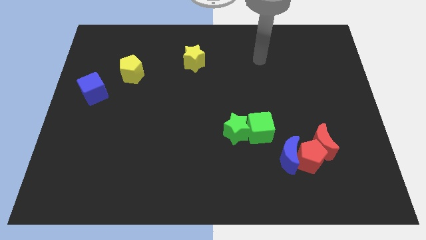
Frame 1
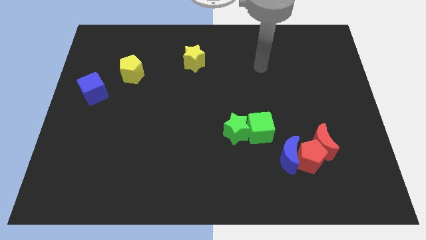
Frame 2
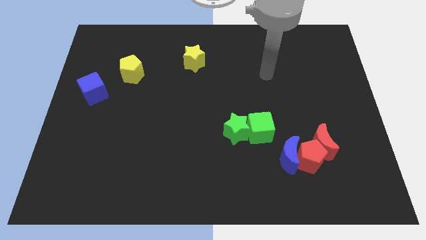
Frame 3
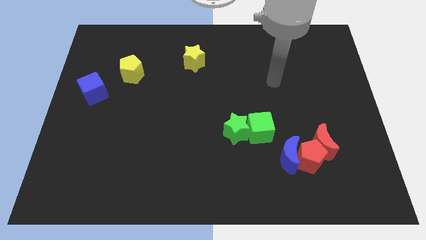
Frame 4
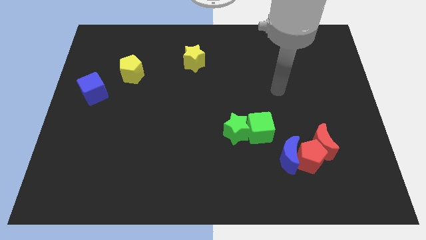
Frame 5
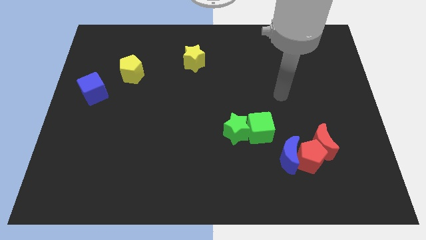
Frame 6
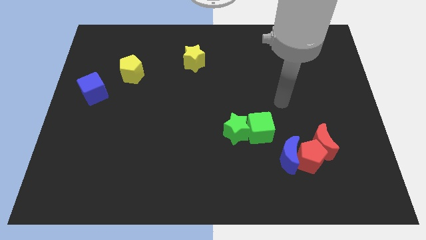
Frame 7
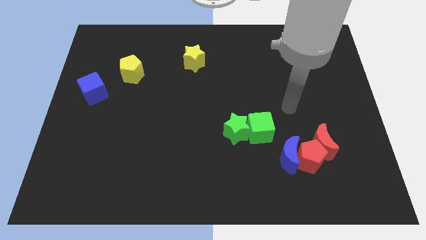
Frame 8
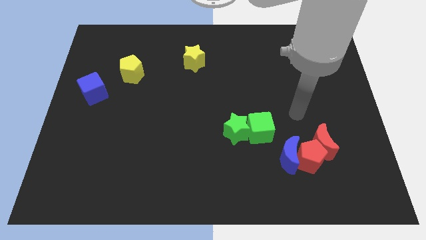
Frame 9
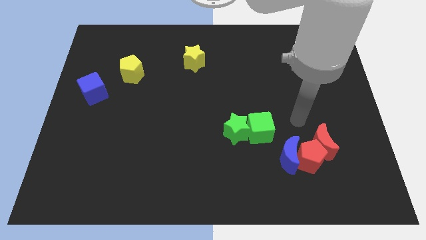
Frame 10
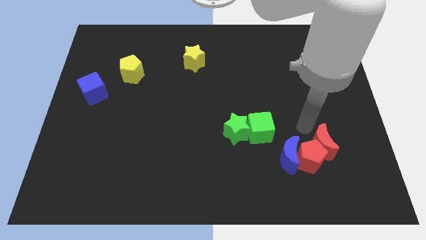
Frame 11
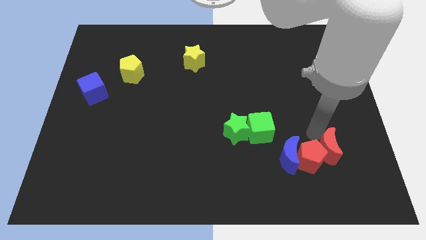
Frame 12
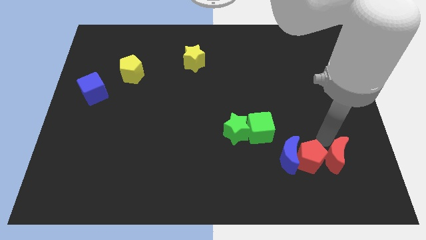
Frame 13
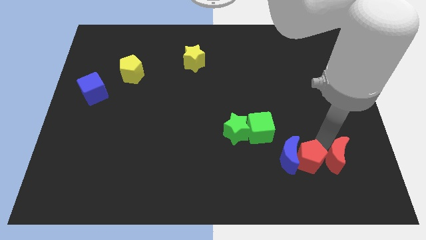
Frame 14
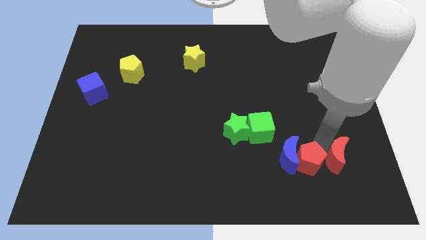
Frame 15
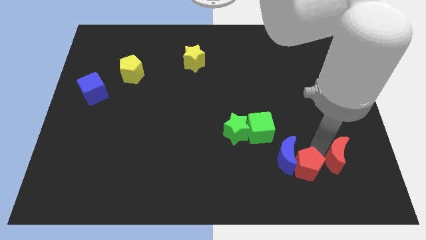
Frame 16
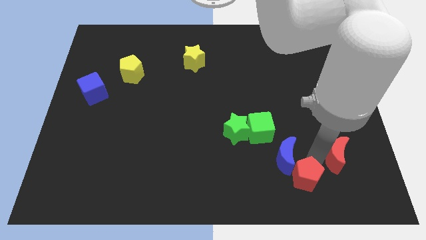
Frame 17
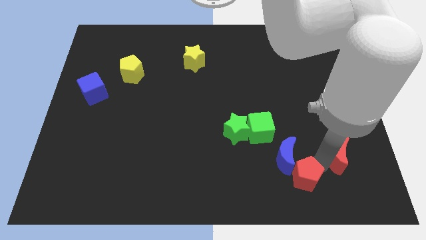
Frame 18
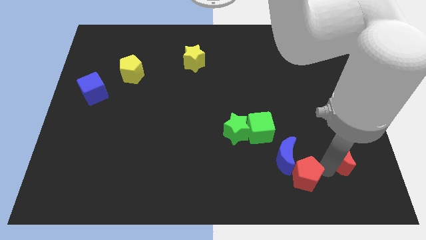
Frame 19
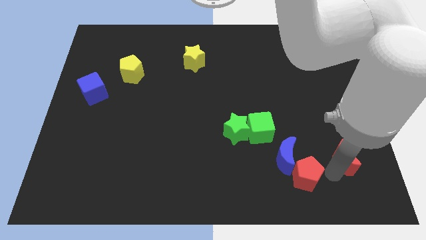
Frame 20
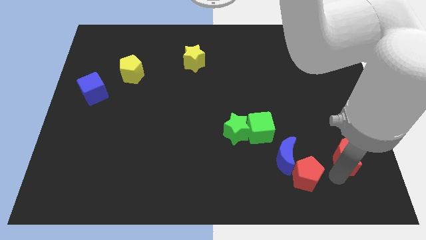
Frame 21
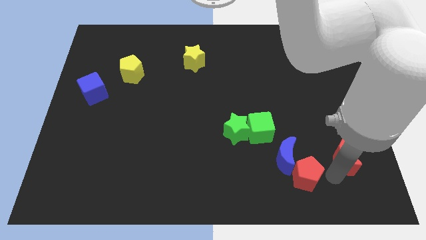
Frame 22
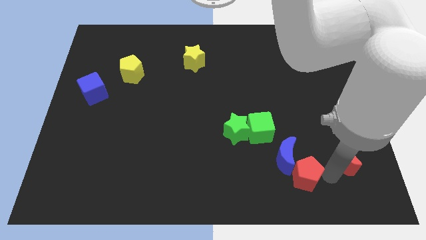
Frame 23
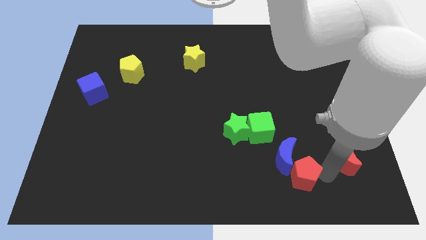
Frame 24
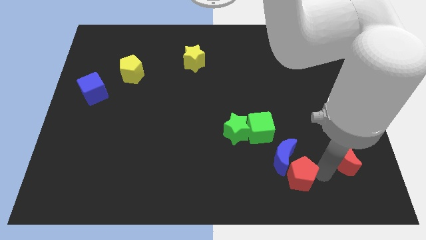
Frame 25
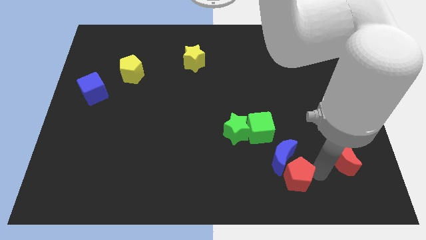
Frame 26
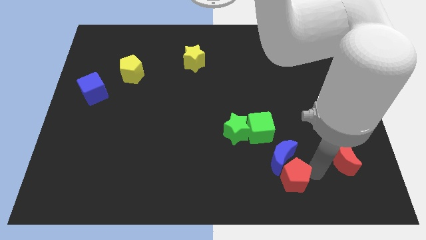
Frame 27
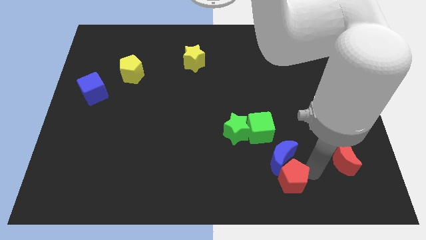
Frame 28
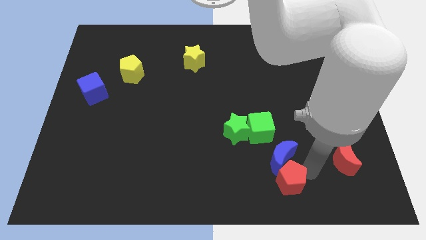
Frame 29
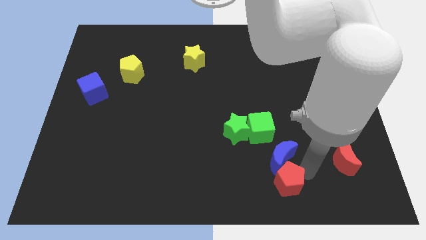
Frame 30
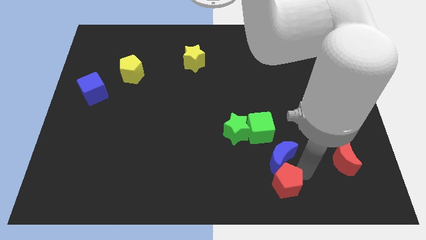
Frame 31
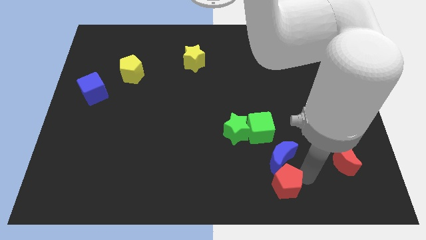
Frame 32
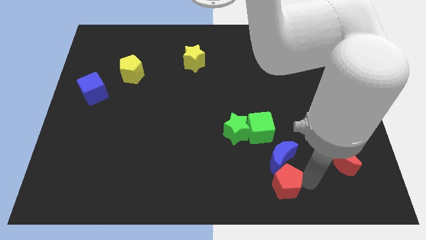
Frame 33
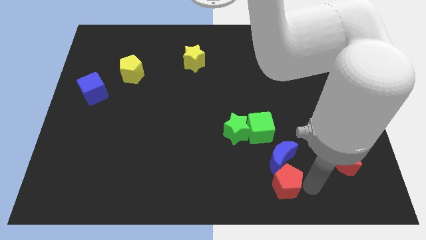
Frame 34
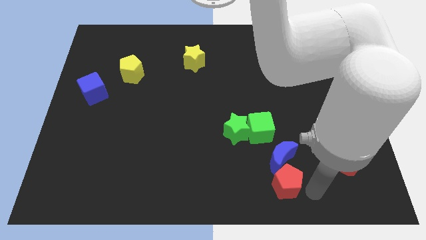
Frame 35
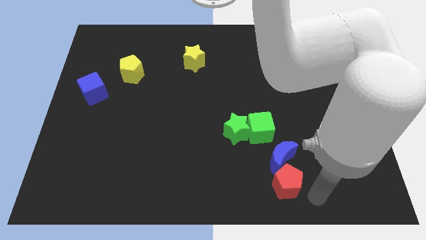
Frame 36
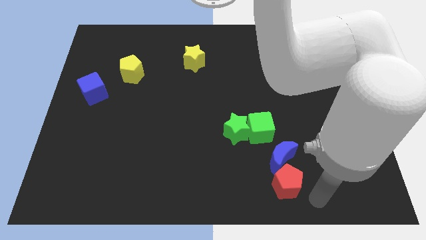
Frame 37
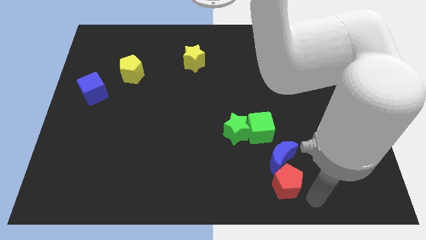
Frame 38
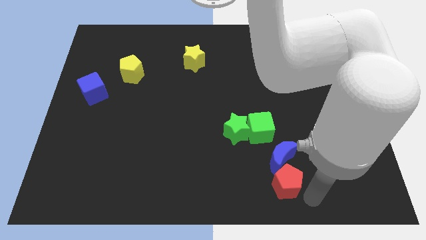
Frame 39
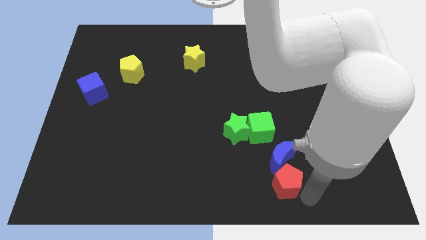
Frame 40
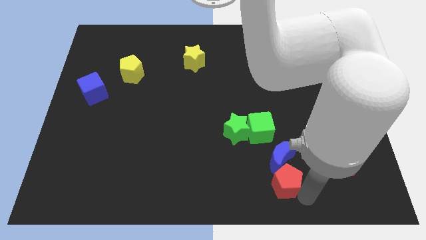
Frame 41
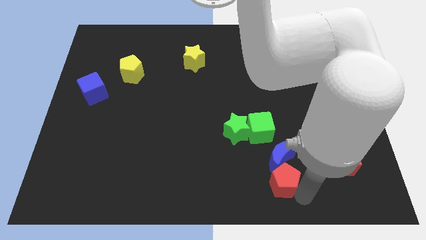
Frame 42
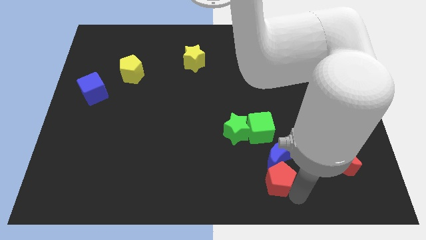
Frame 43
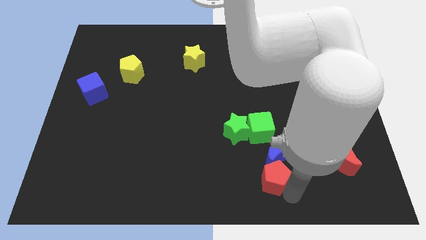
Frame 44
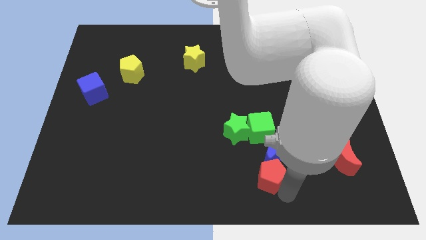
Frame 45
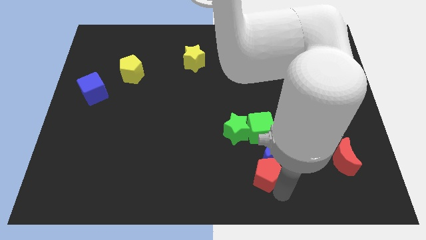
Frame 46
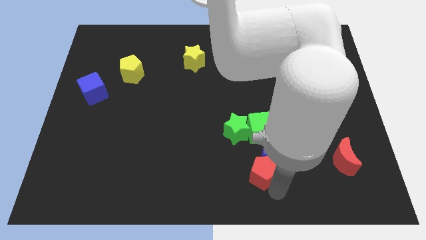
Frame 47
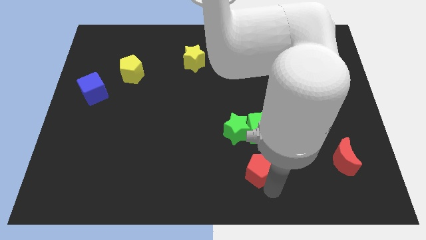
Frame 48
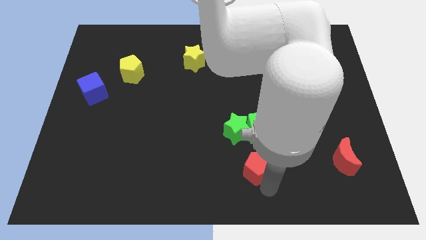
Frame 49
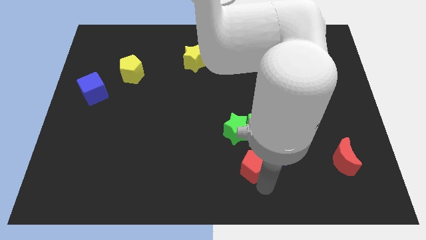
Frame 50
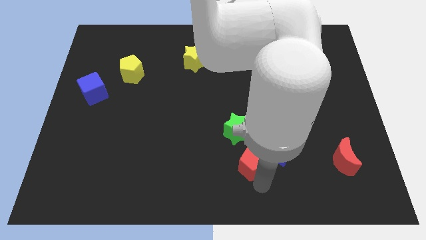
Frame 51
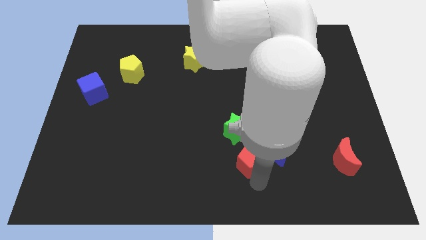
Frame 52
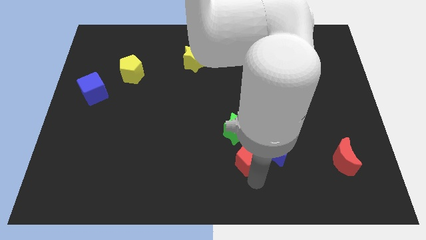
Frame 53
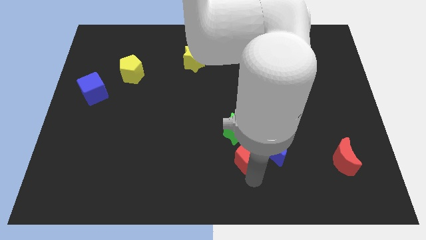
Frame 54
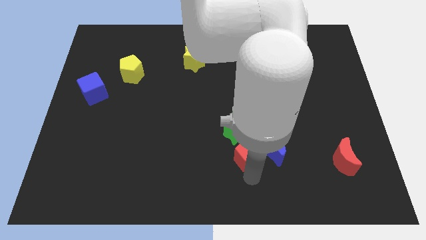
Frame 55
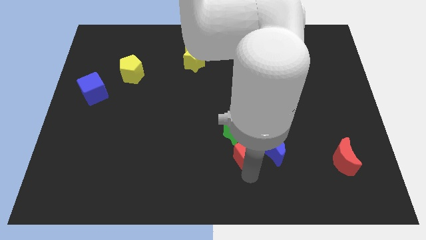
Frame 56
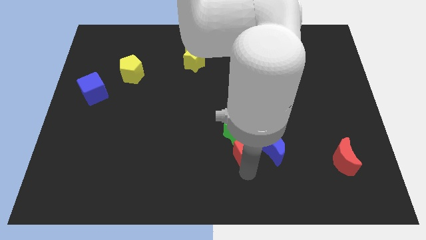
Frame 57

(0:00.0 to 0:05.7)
move the red pentagon next to the green star

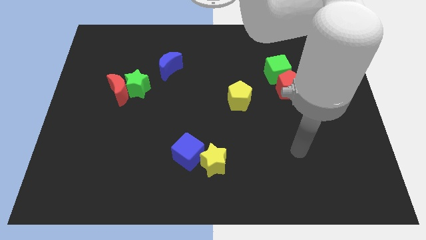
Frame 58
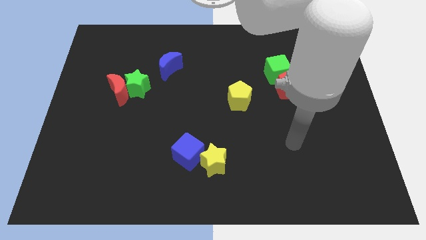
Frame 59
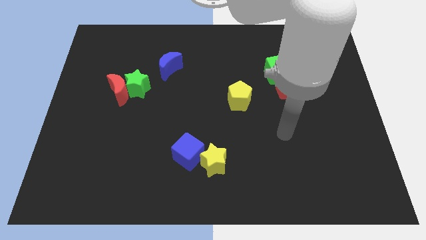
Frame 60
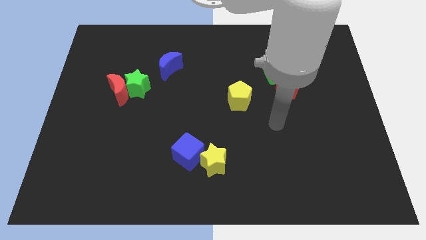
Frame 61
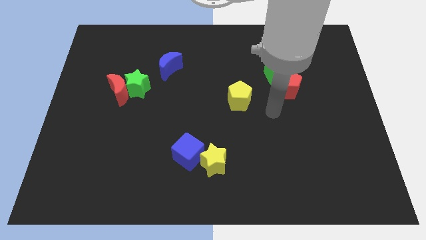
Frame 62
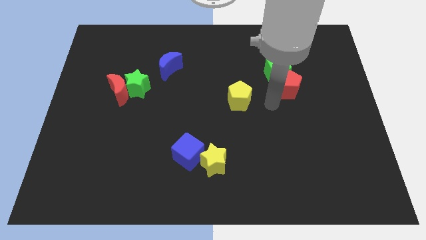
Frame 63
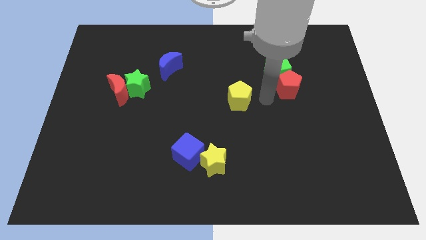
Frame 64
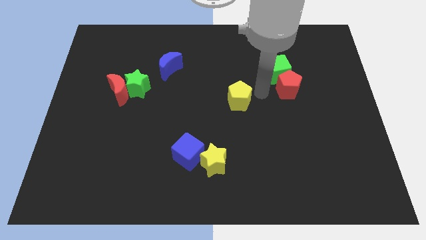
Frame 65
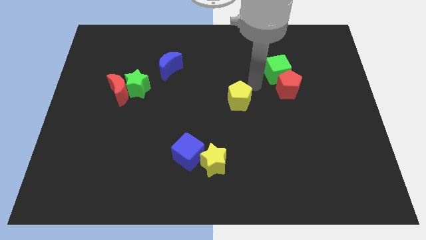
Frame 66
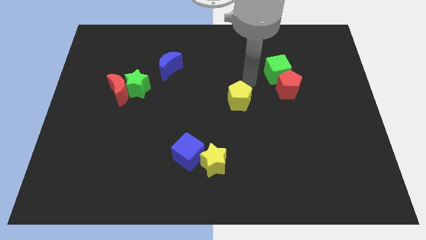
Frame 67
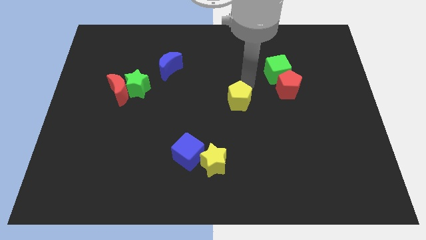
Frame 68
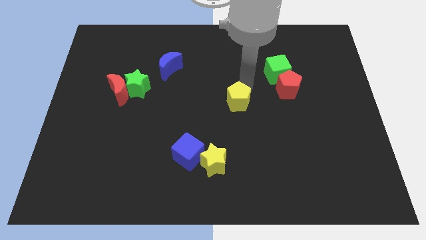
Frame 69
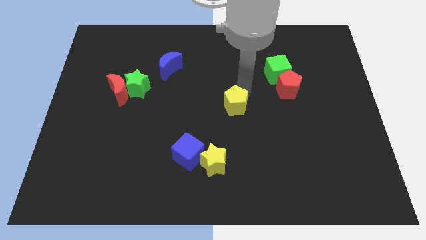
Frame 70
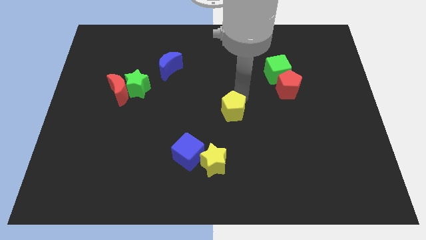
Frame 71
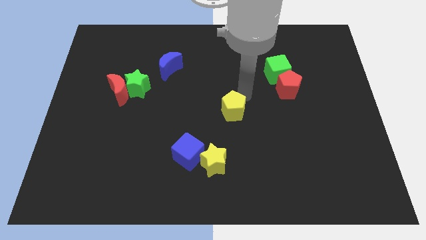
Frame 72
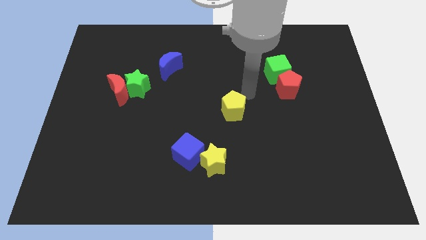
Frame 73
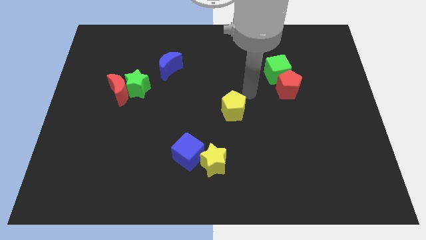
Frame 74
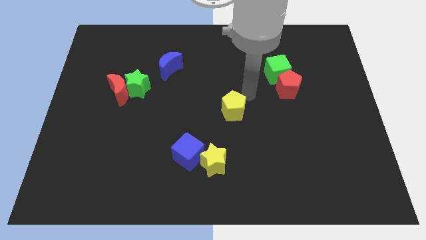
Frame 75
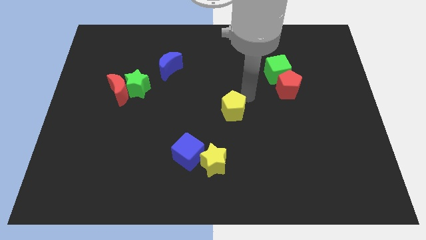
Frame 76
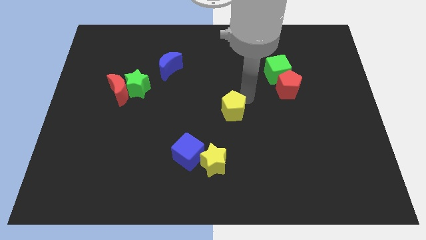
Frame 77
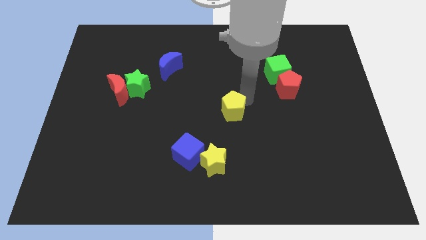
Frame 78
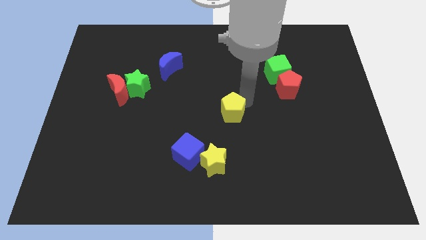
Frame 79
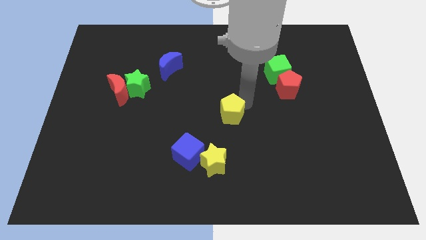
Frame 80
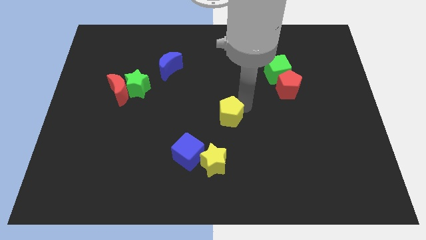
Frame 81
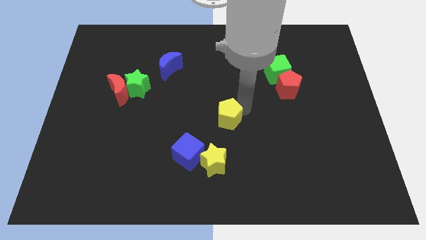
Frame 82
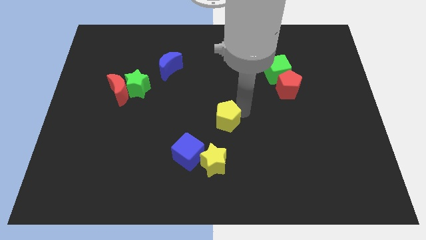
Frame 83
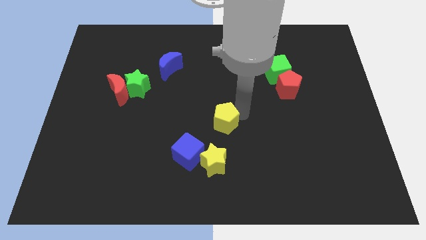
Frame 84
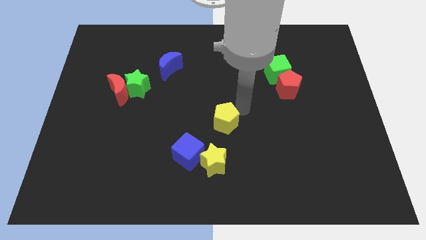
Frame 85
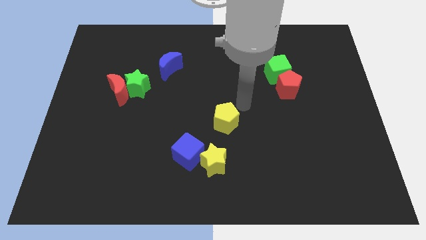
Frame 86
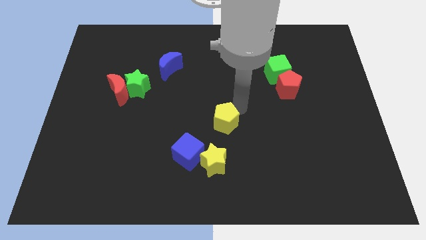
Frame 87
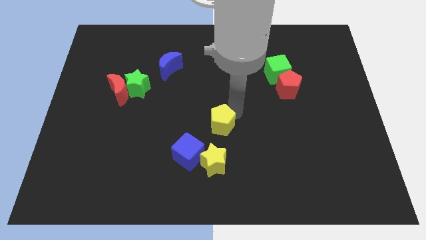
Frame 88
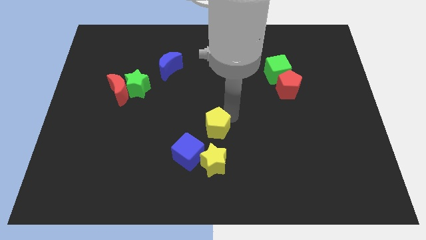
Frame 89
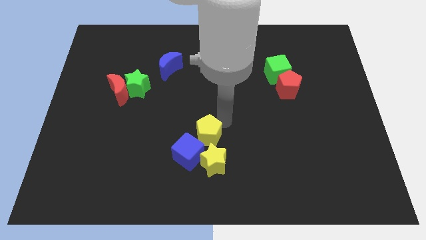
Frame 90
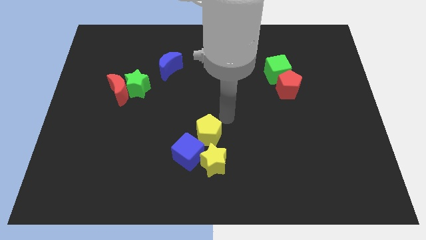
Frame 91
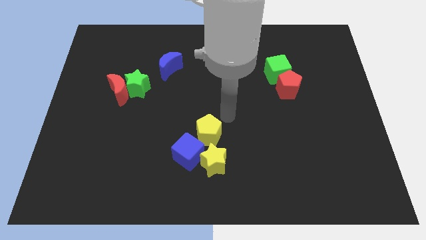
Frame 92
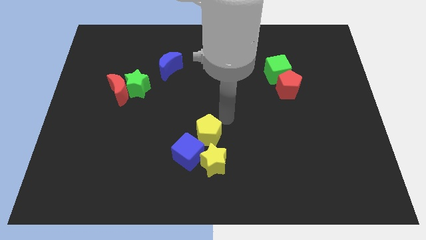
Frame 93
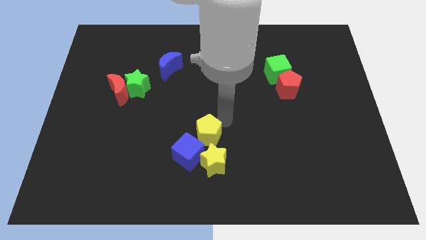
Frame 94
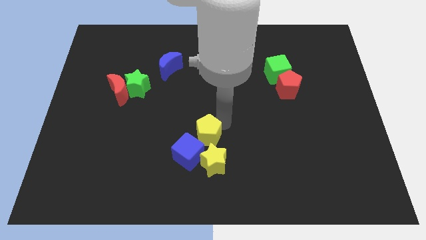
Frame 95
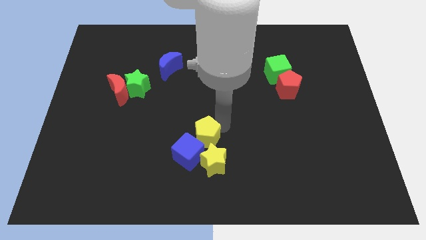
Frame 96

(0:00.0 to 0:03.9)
slide the yellow pentagon close to the blue cube
